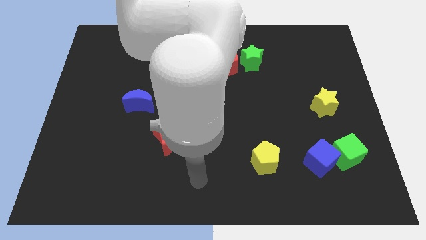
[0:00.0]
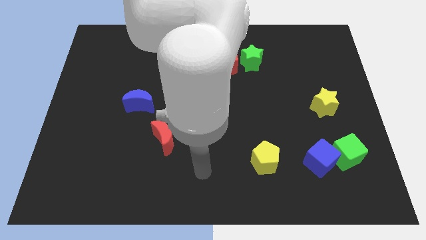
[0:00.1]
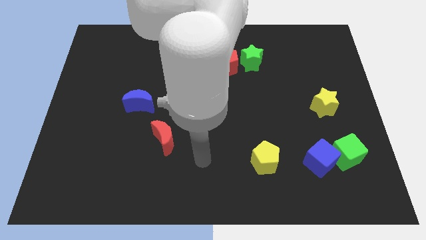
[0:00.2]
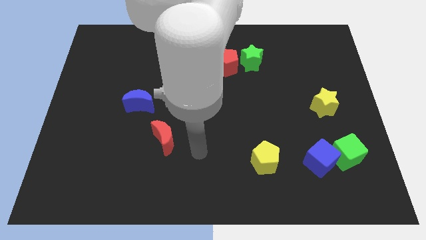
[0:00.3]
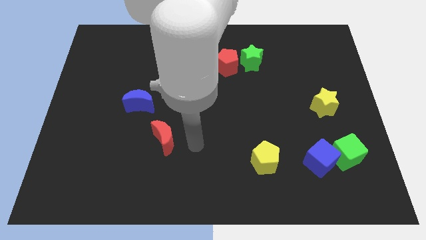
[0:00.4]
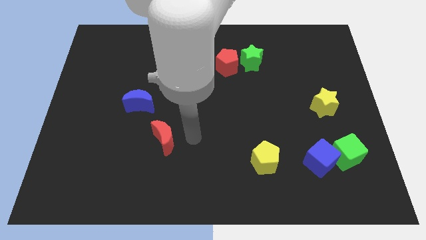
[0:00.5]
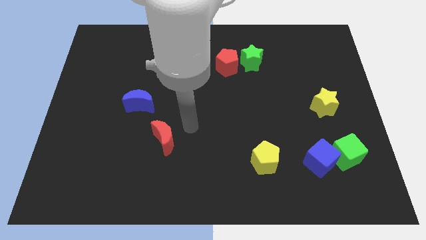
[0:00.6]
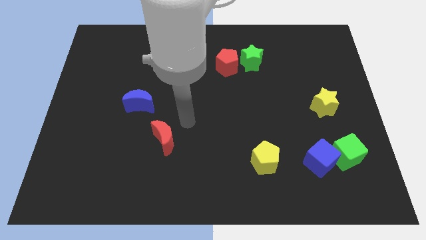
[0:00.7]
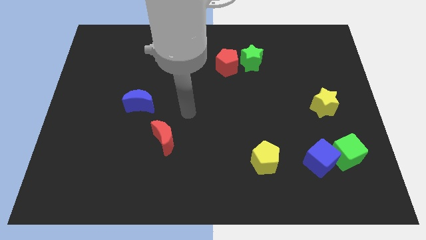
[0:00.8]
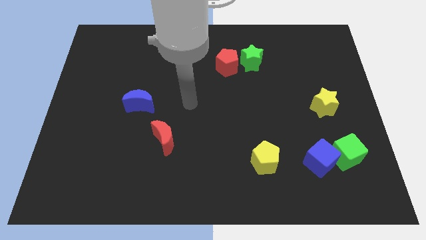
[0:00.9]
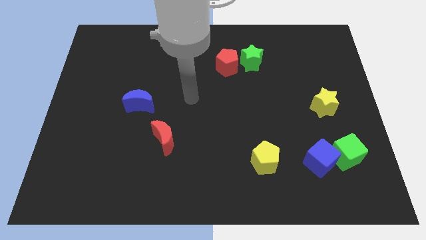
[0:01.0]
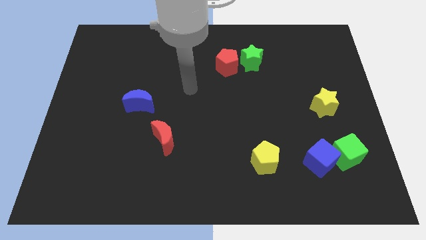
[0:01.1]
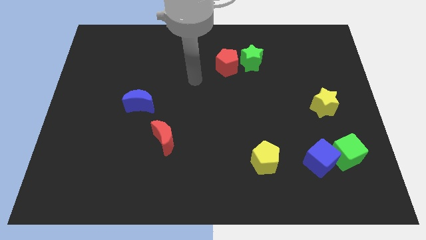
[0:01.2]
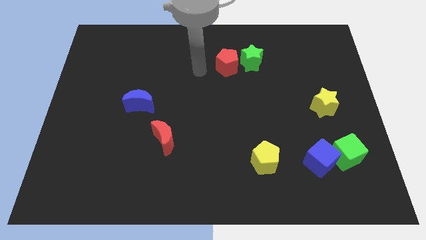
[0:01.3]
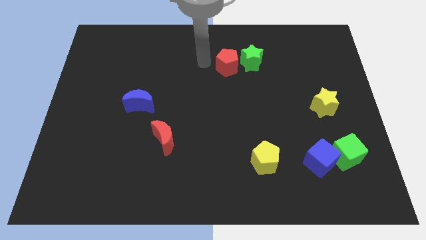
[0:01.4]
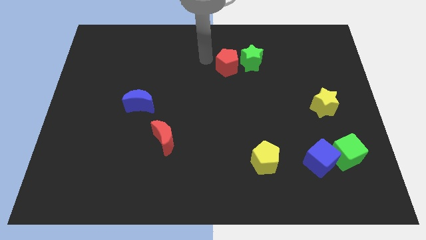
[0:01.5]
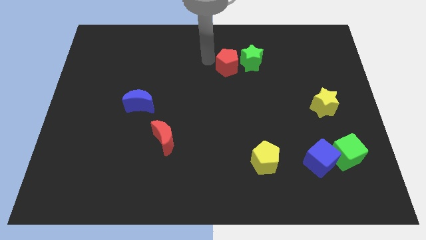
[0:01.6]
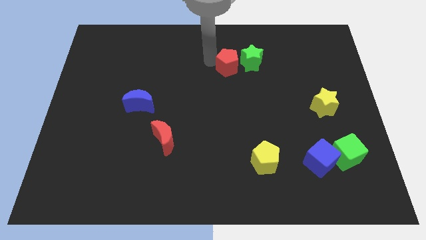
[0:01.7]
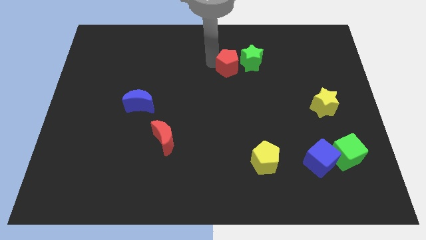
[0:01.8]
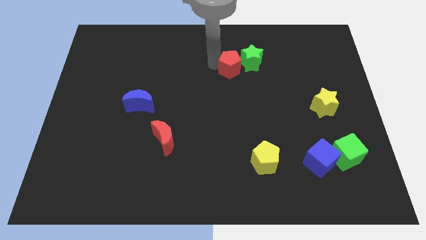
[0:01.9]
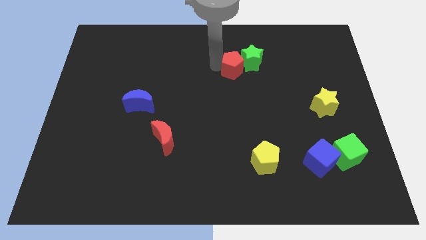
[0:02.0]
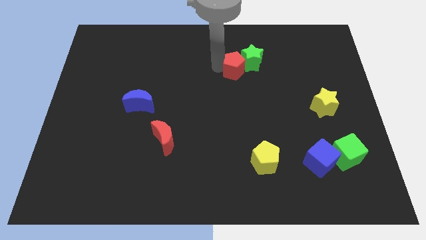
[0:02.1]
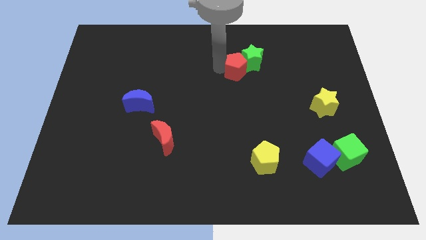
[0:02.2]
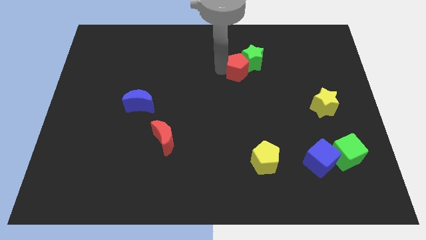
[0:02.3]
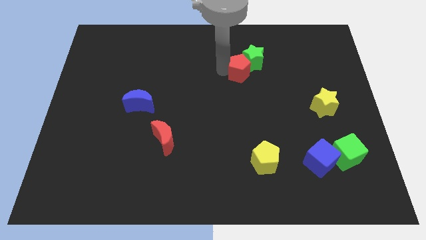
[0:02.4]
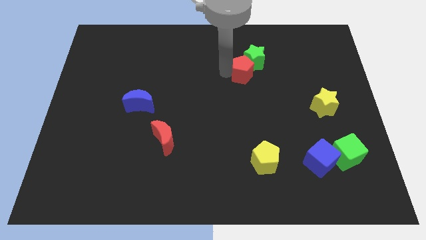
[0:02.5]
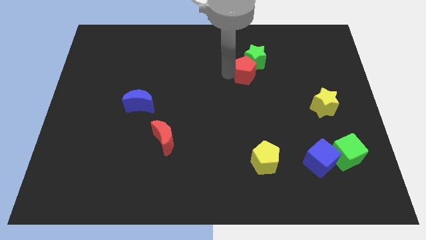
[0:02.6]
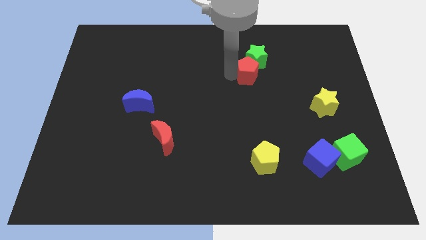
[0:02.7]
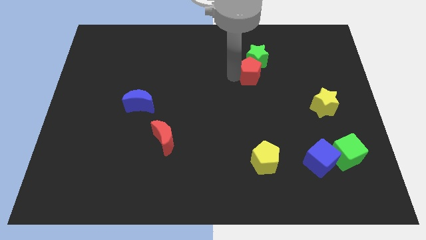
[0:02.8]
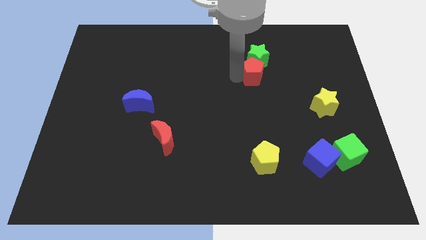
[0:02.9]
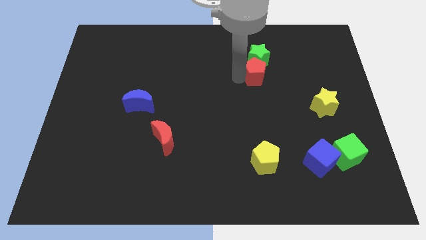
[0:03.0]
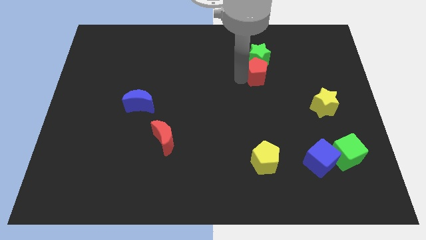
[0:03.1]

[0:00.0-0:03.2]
slightly slide the red pentagon right

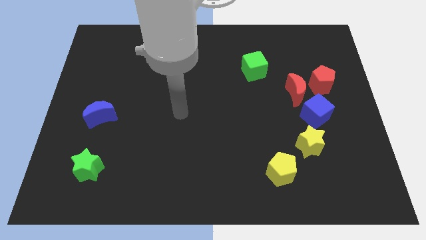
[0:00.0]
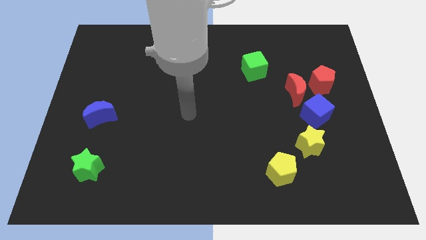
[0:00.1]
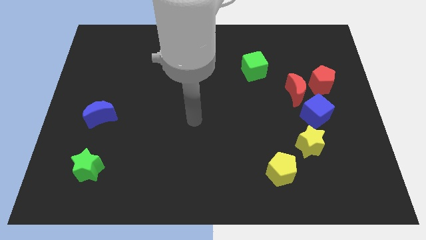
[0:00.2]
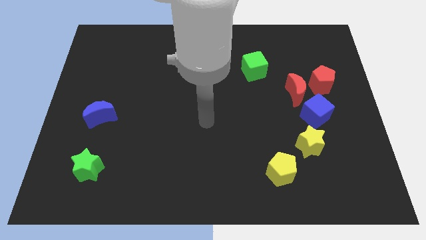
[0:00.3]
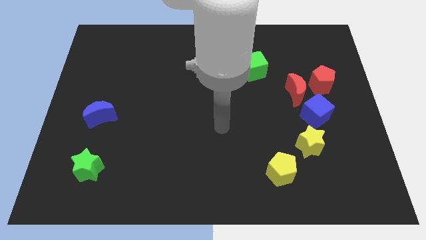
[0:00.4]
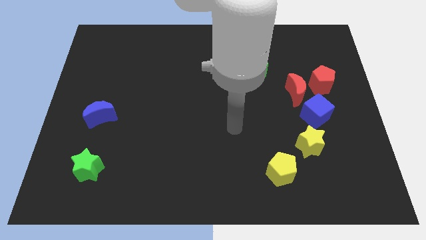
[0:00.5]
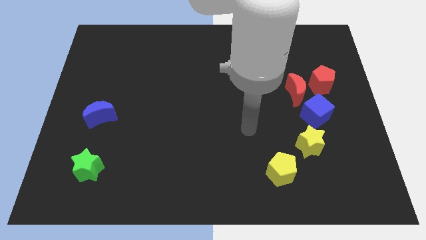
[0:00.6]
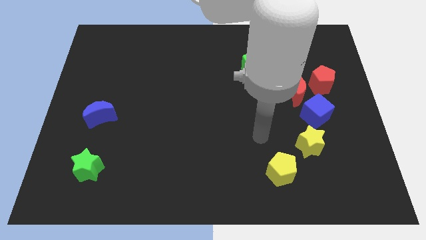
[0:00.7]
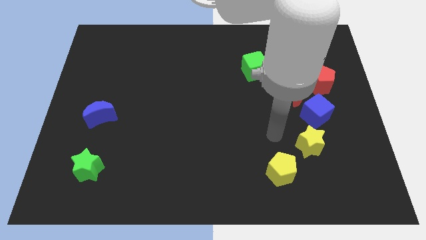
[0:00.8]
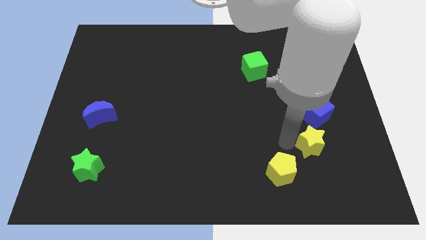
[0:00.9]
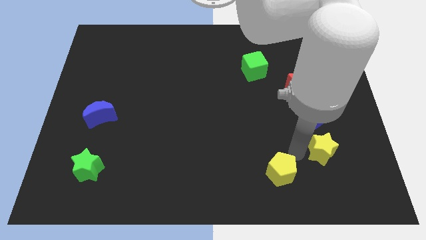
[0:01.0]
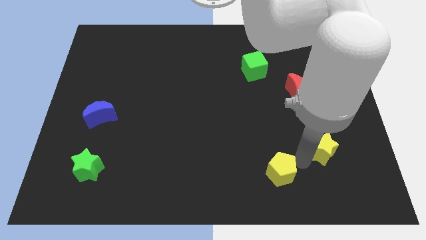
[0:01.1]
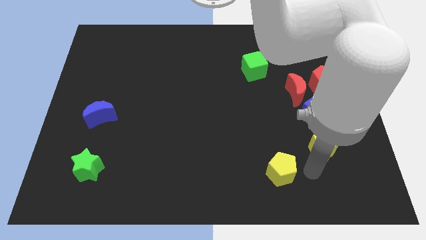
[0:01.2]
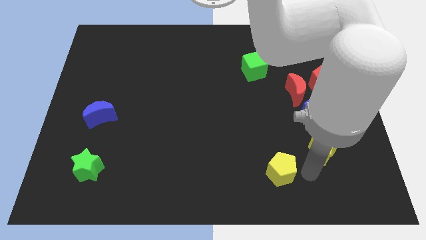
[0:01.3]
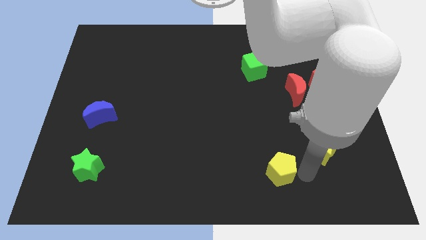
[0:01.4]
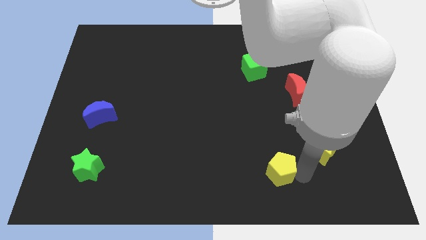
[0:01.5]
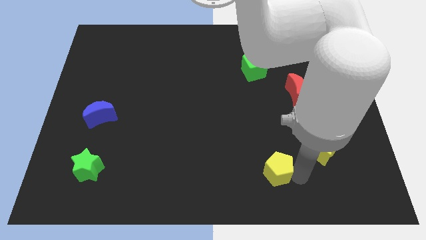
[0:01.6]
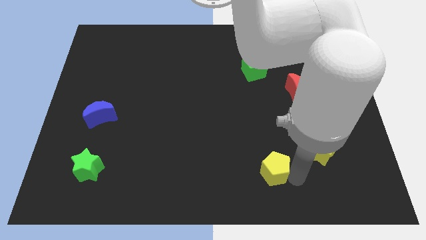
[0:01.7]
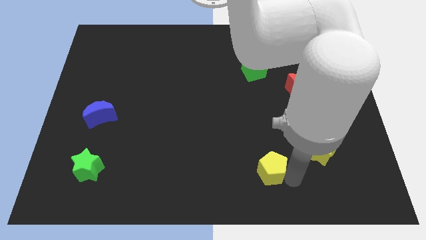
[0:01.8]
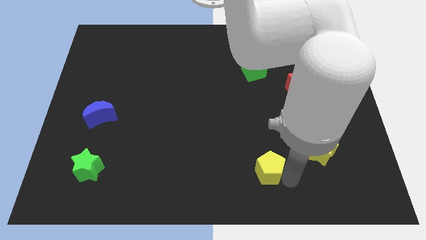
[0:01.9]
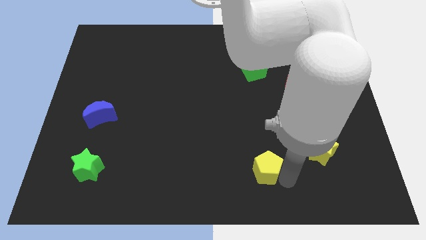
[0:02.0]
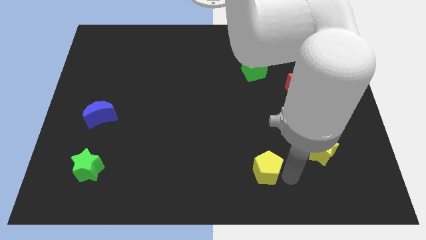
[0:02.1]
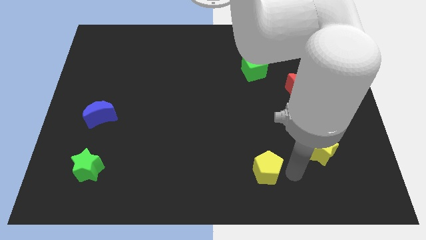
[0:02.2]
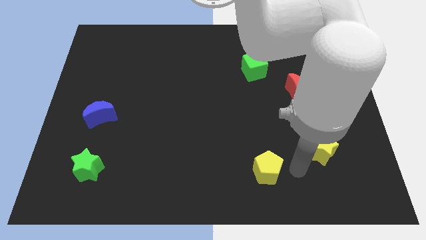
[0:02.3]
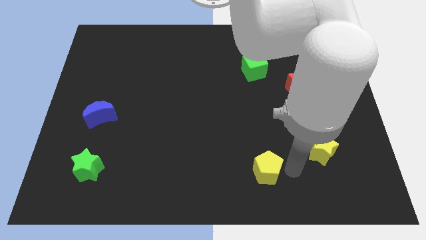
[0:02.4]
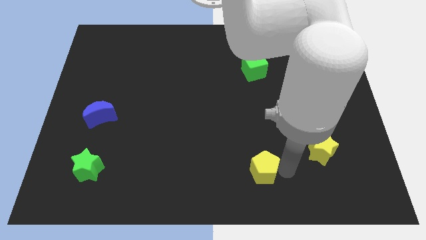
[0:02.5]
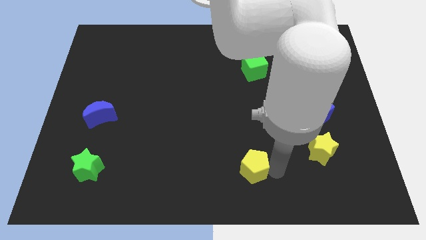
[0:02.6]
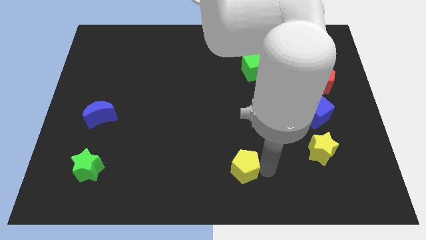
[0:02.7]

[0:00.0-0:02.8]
push the yellow pentagon to the left a bit

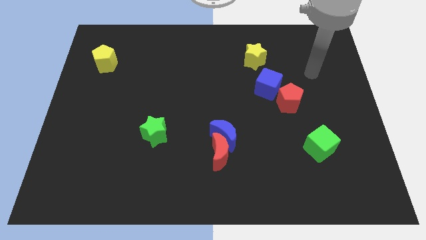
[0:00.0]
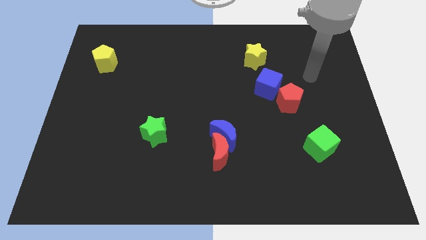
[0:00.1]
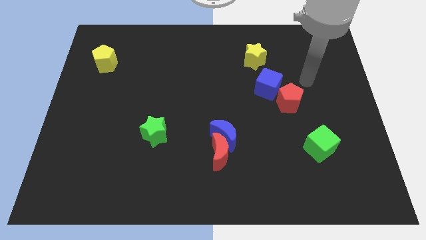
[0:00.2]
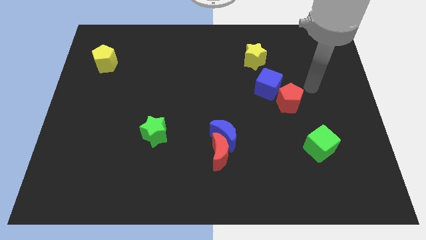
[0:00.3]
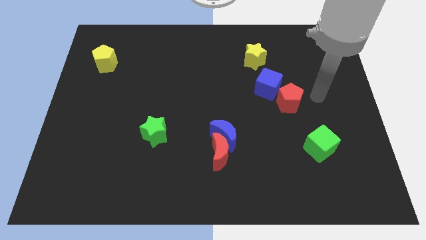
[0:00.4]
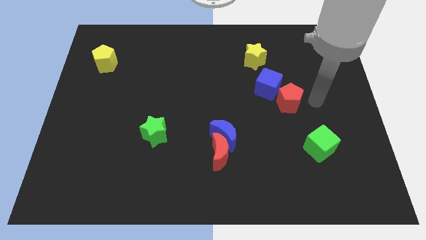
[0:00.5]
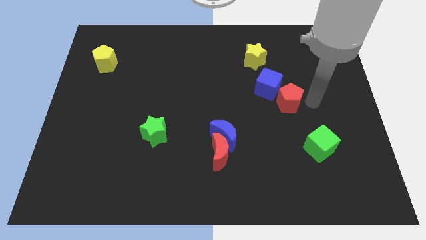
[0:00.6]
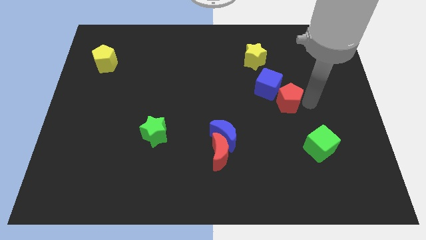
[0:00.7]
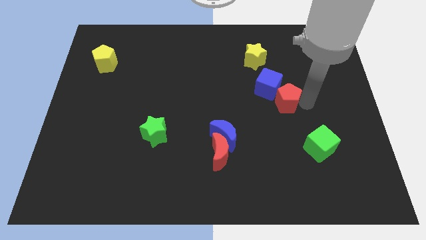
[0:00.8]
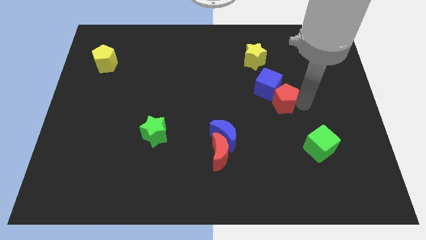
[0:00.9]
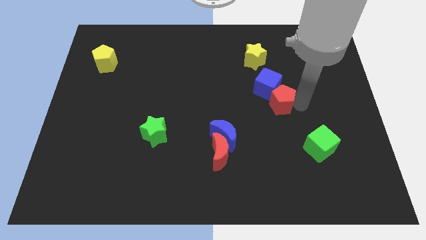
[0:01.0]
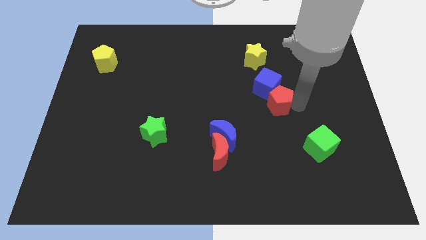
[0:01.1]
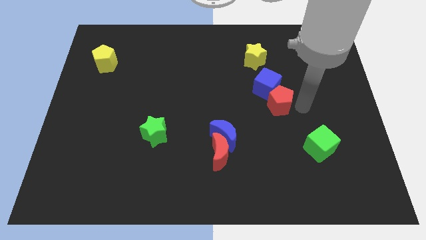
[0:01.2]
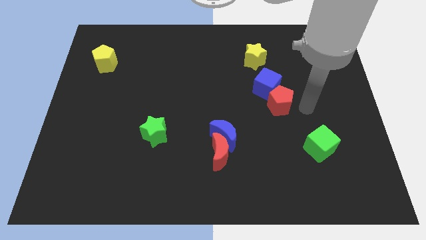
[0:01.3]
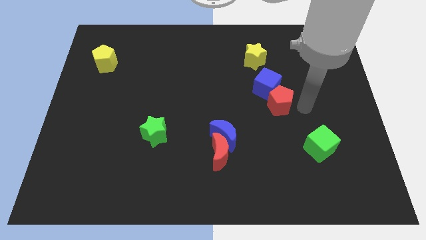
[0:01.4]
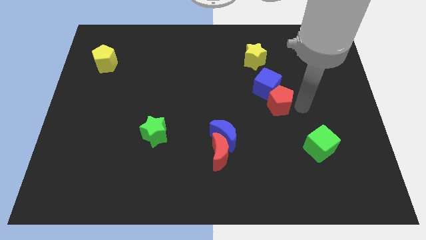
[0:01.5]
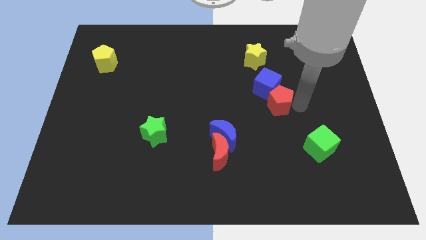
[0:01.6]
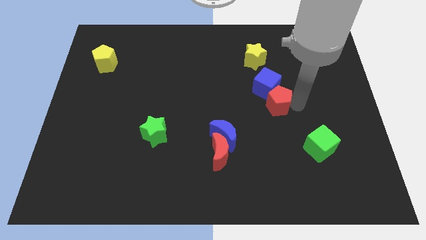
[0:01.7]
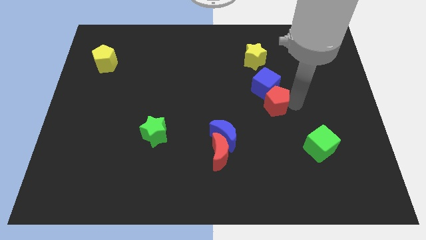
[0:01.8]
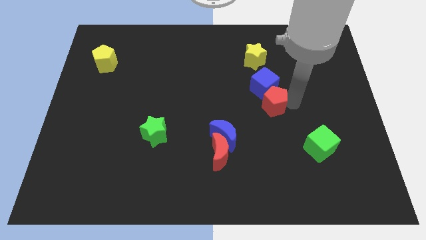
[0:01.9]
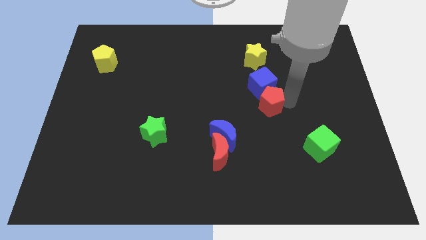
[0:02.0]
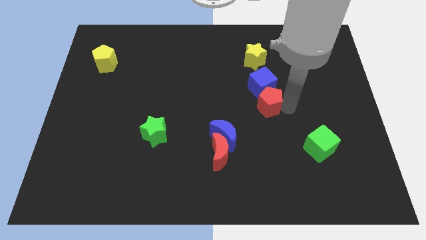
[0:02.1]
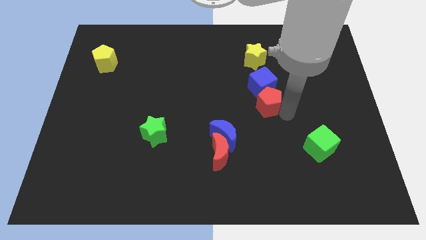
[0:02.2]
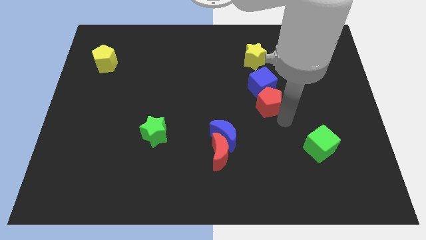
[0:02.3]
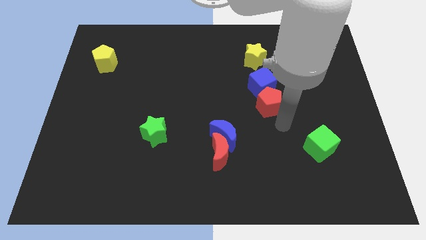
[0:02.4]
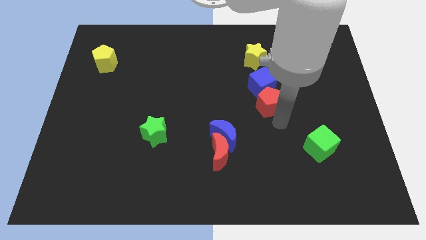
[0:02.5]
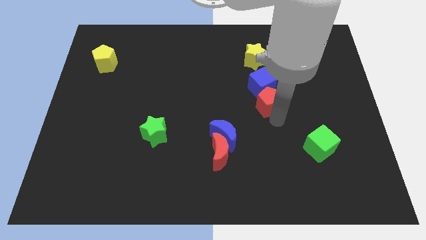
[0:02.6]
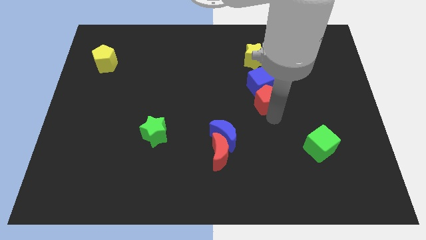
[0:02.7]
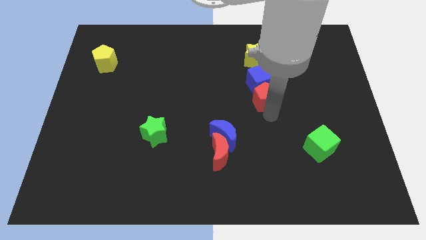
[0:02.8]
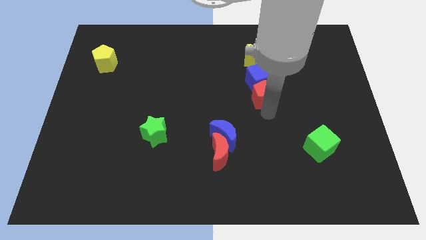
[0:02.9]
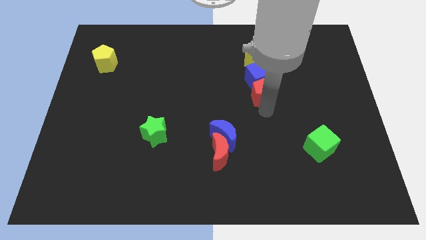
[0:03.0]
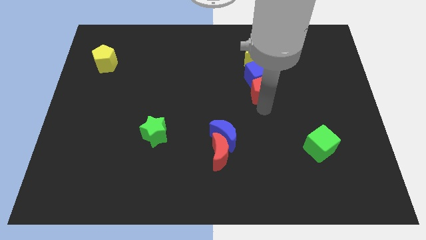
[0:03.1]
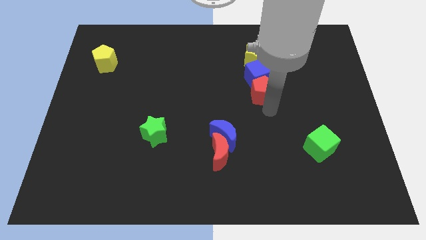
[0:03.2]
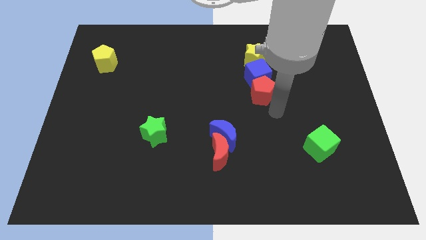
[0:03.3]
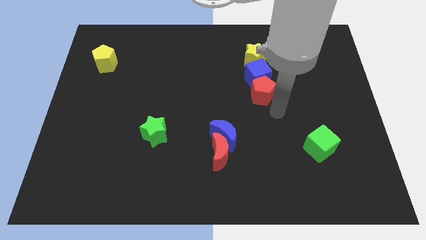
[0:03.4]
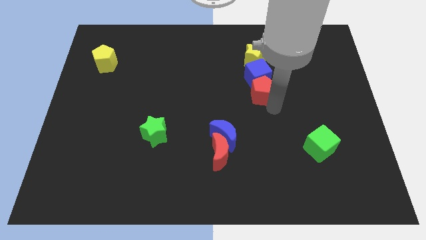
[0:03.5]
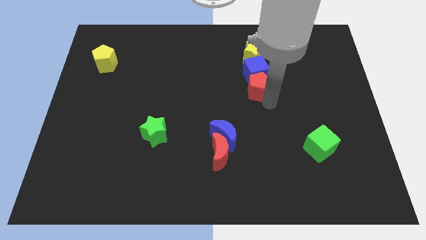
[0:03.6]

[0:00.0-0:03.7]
move the red pentagon a little bit upwards and then left
